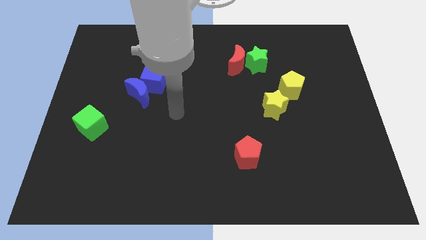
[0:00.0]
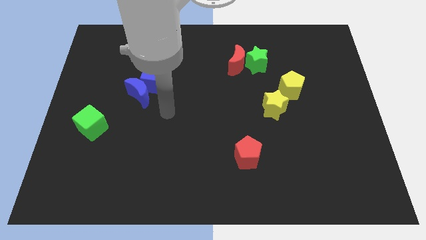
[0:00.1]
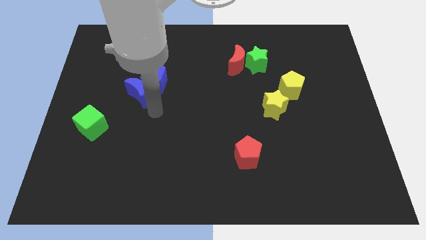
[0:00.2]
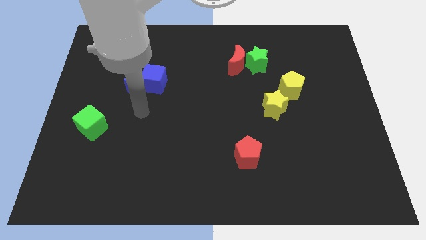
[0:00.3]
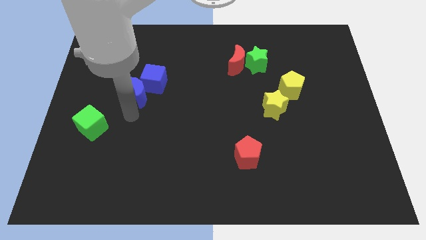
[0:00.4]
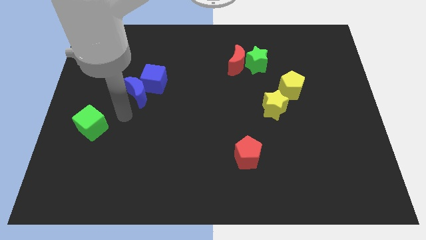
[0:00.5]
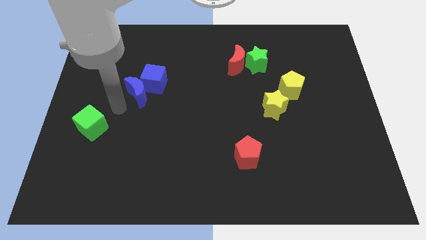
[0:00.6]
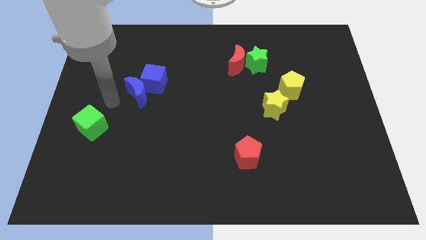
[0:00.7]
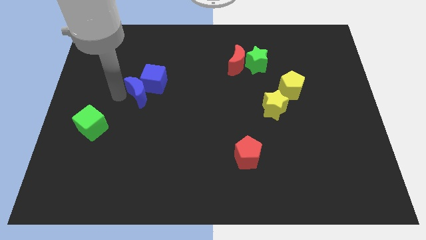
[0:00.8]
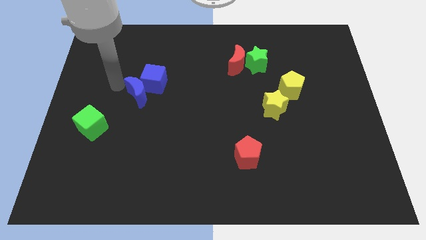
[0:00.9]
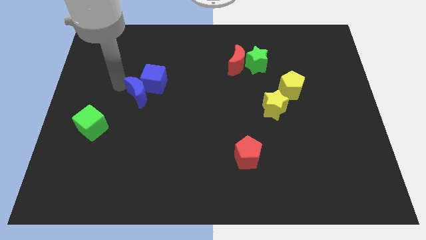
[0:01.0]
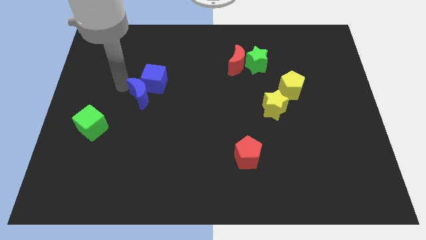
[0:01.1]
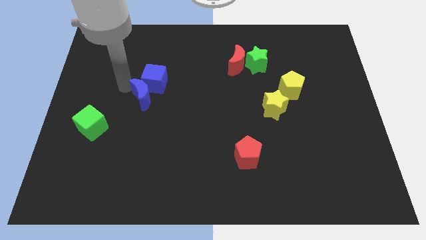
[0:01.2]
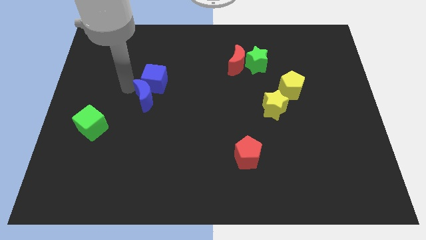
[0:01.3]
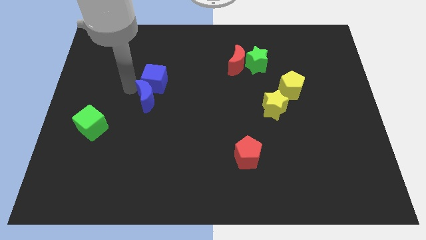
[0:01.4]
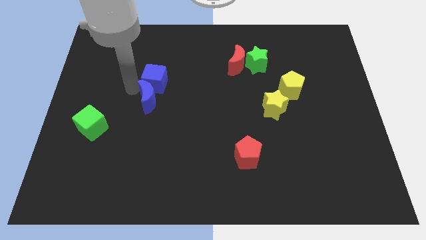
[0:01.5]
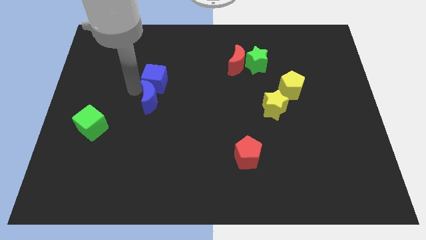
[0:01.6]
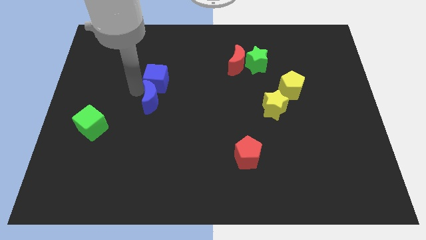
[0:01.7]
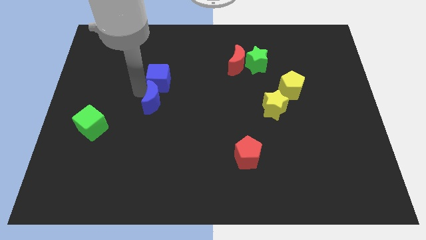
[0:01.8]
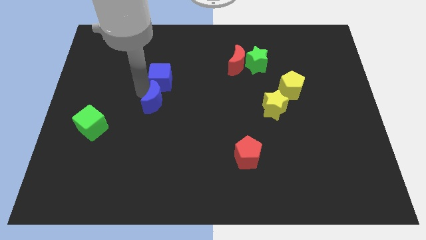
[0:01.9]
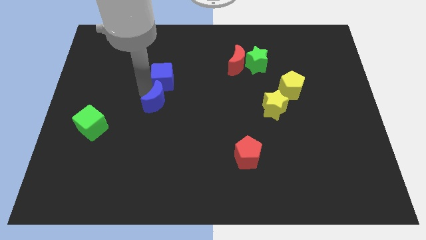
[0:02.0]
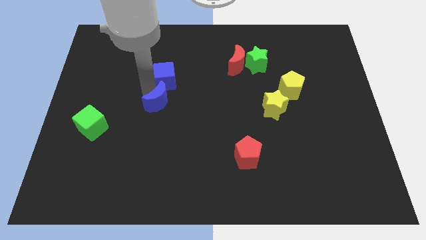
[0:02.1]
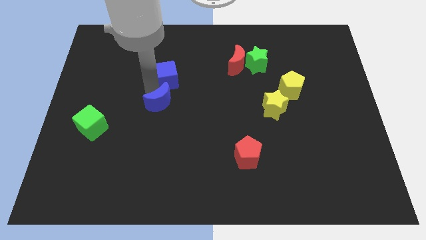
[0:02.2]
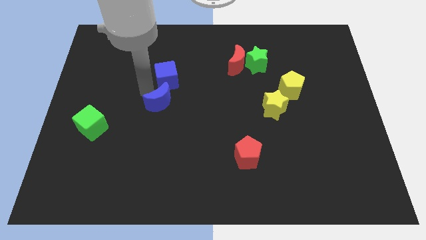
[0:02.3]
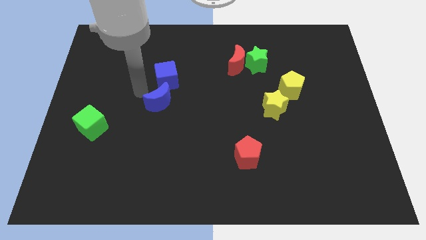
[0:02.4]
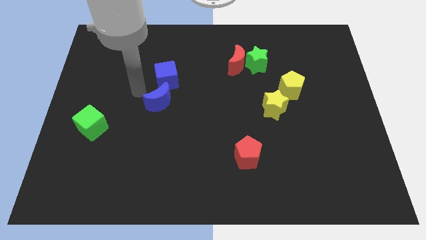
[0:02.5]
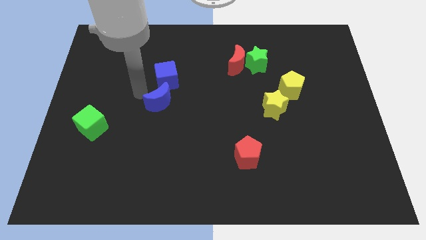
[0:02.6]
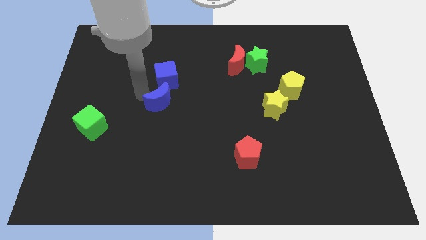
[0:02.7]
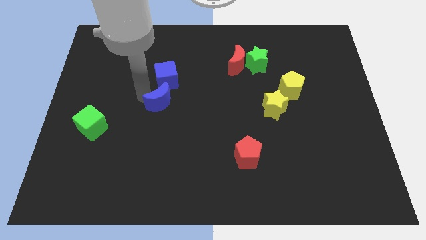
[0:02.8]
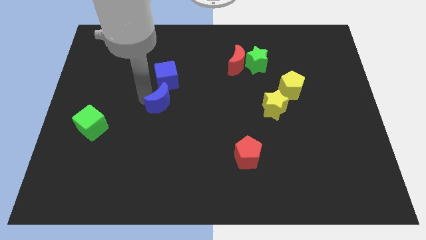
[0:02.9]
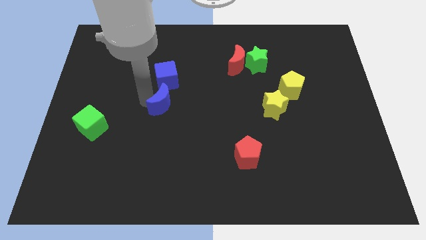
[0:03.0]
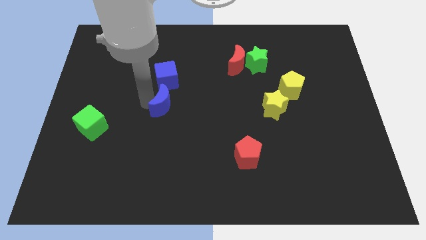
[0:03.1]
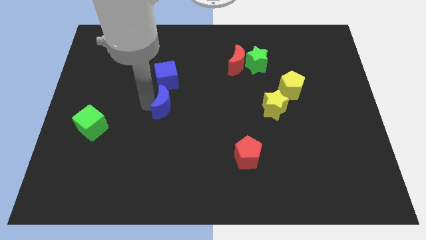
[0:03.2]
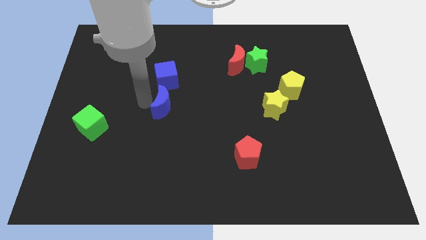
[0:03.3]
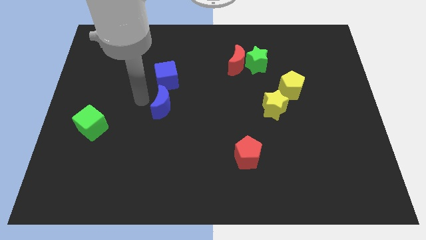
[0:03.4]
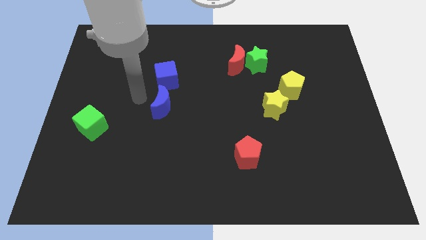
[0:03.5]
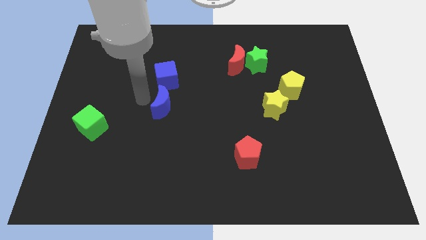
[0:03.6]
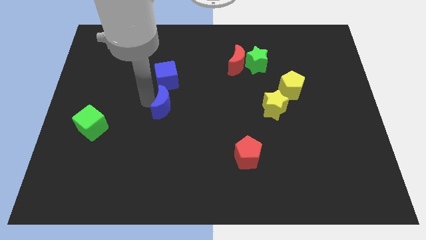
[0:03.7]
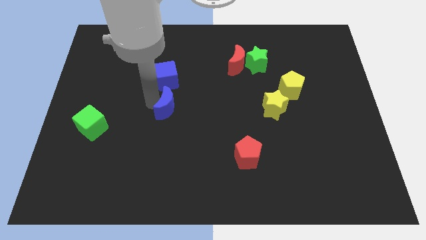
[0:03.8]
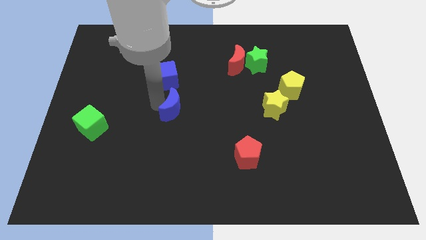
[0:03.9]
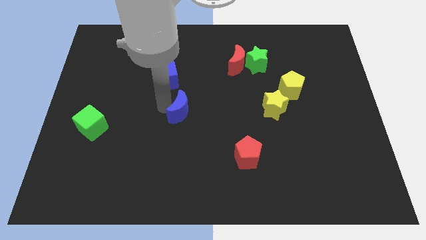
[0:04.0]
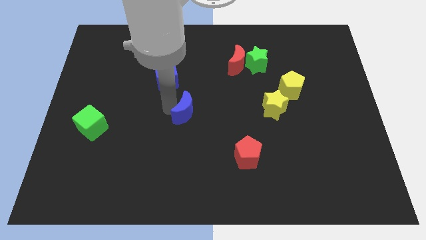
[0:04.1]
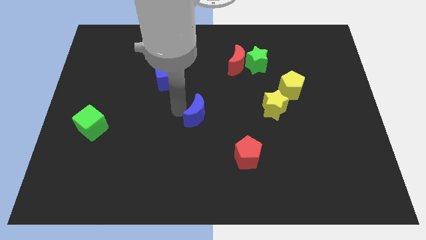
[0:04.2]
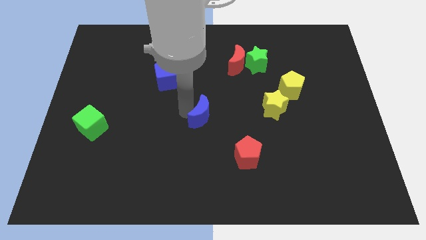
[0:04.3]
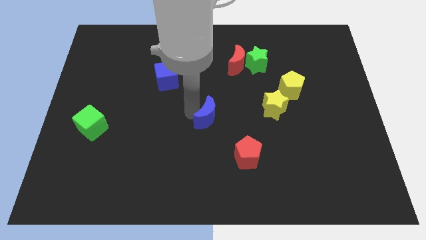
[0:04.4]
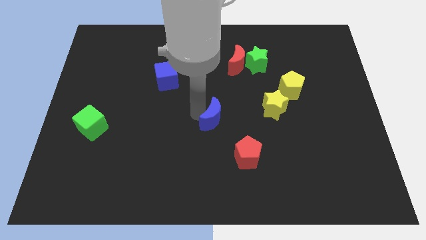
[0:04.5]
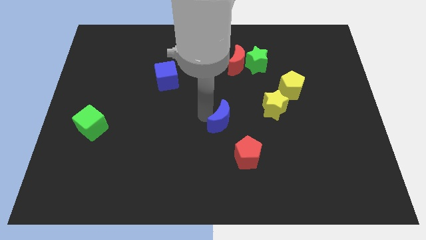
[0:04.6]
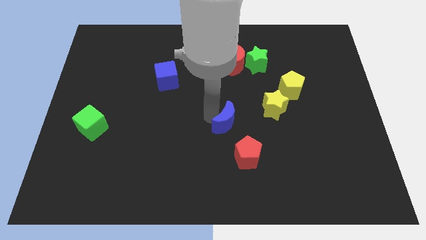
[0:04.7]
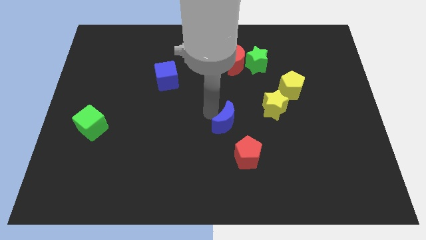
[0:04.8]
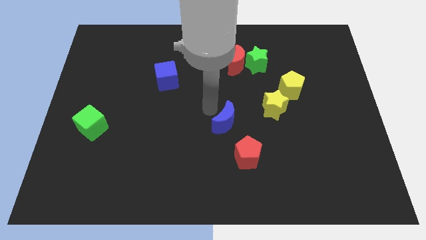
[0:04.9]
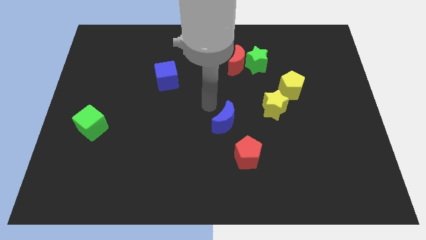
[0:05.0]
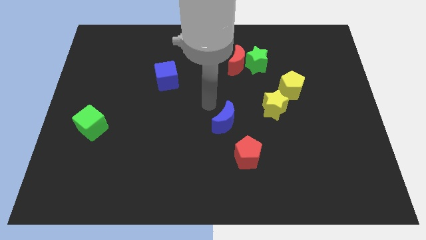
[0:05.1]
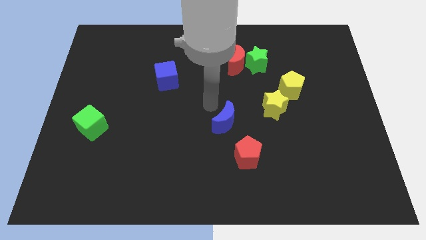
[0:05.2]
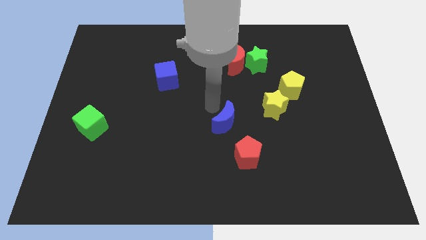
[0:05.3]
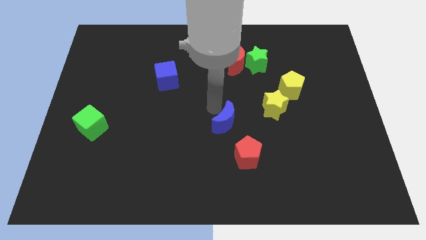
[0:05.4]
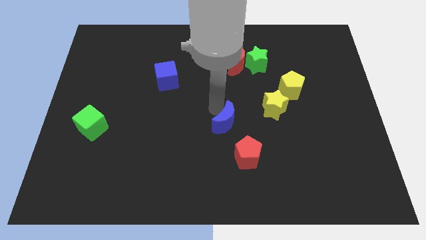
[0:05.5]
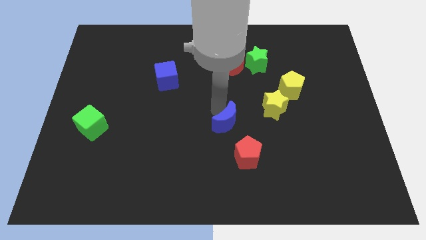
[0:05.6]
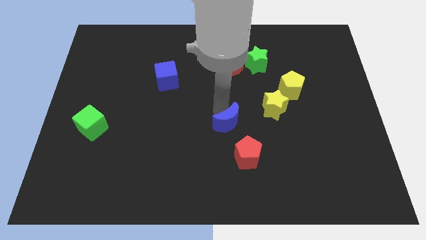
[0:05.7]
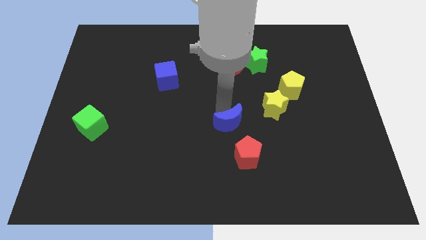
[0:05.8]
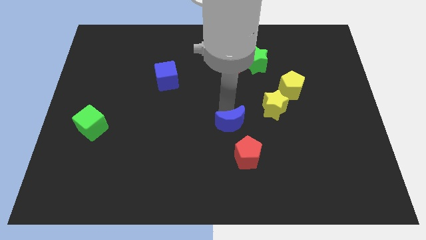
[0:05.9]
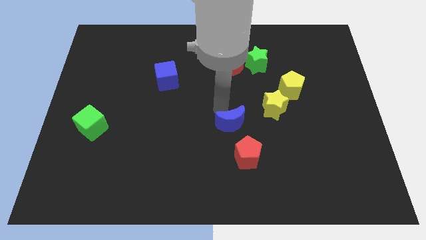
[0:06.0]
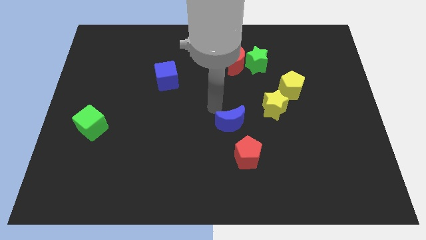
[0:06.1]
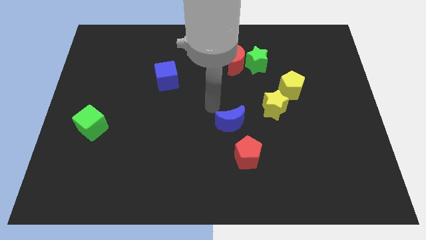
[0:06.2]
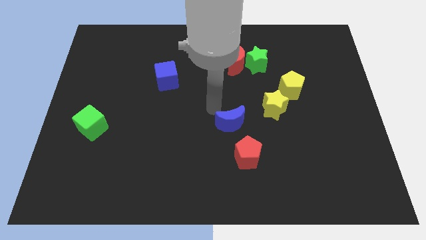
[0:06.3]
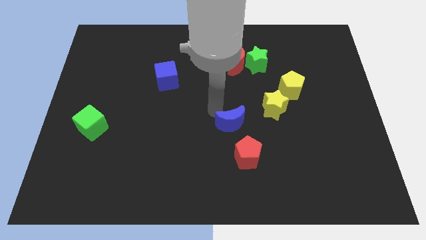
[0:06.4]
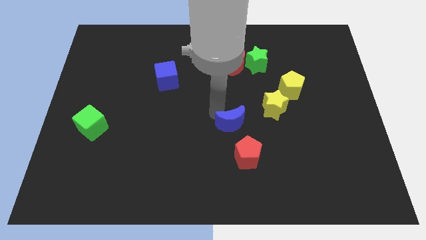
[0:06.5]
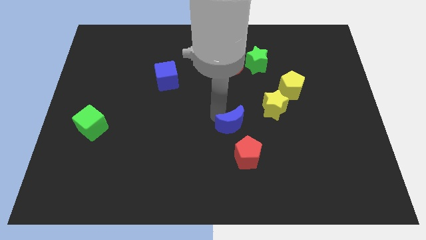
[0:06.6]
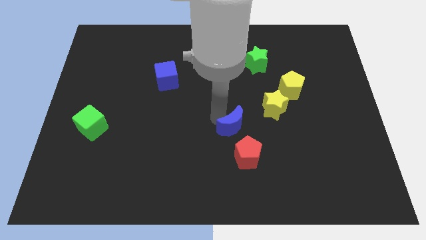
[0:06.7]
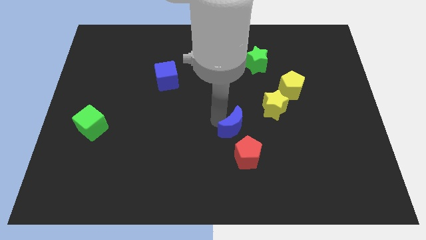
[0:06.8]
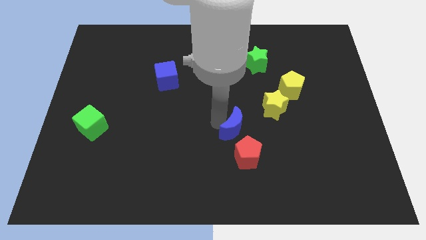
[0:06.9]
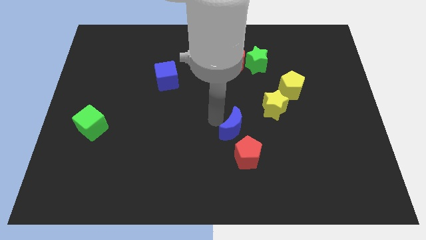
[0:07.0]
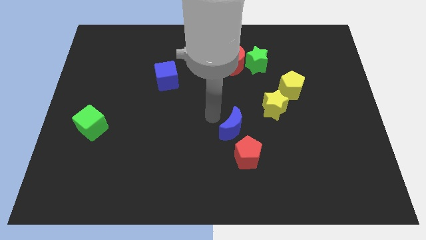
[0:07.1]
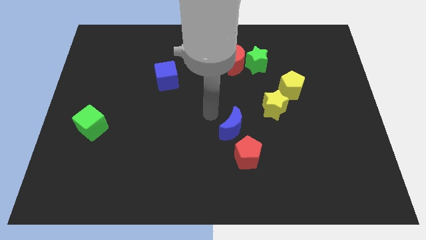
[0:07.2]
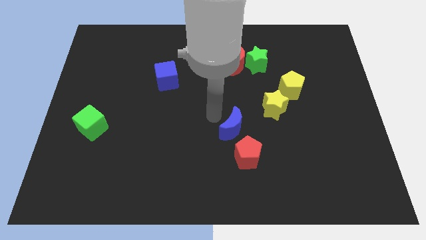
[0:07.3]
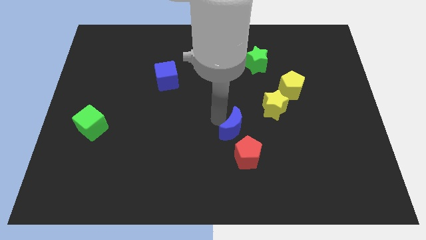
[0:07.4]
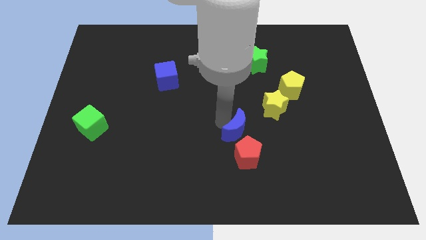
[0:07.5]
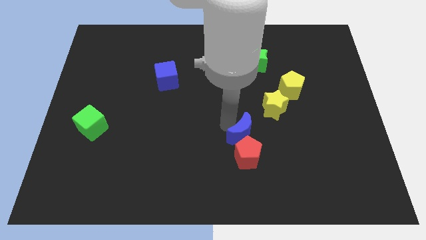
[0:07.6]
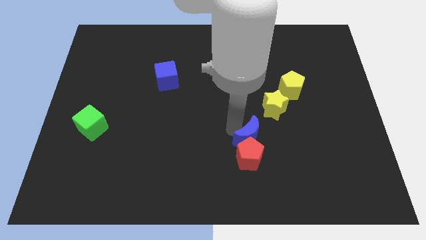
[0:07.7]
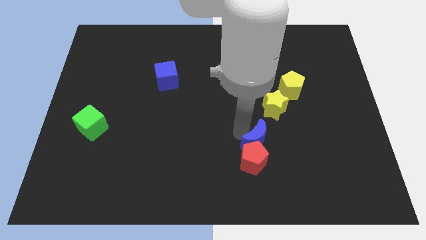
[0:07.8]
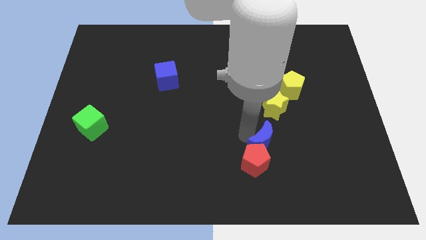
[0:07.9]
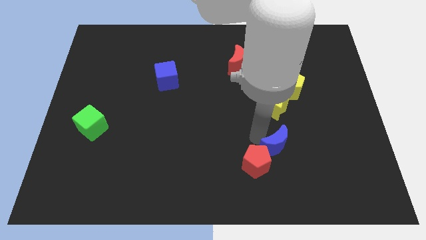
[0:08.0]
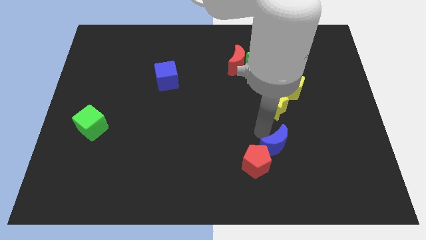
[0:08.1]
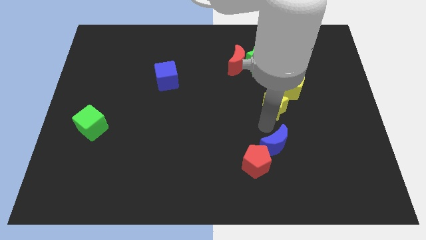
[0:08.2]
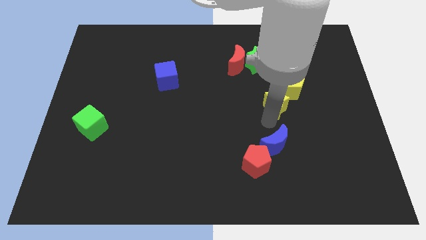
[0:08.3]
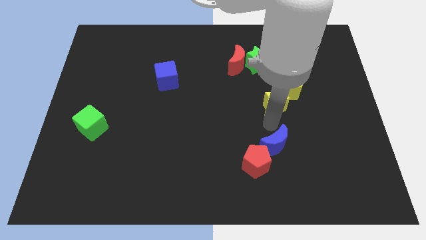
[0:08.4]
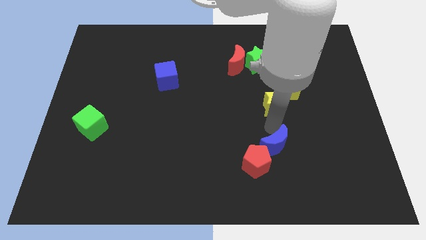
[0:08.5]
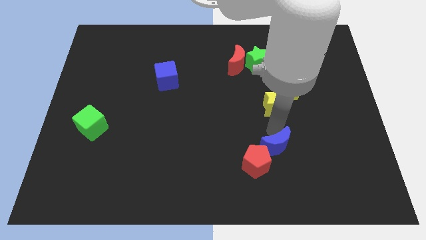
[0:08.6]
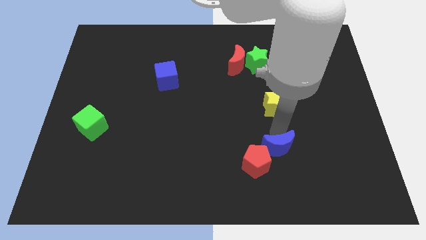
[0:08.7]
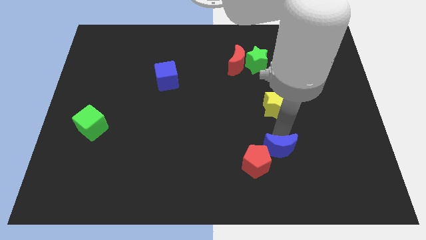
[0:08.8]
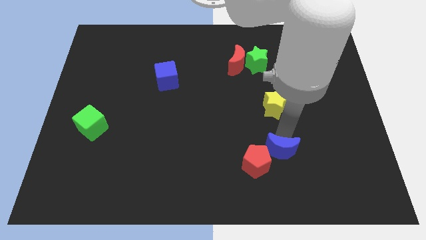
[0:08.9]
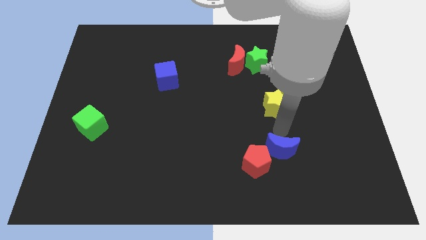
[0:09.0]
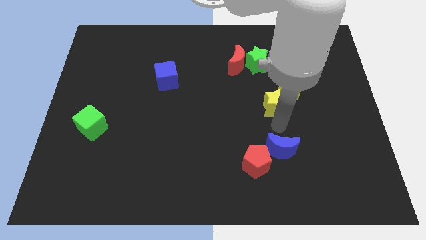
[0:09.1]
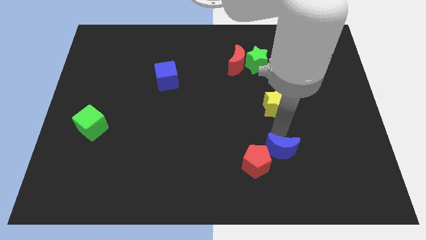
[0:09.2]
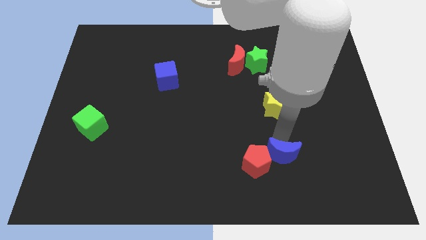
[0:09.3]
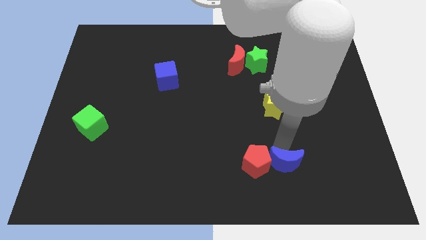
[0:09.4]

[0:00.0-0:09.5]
slide the blue moon to the bottom right side of the red pentagon
